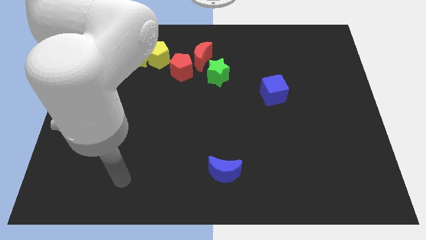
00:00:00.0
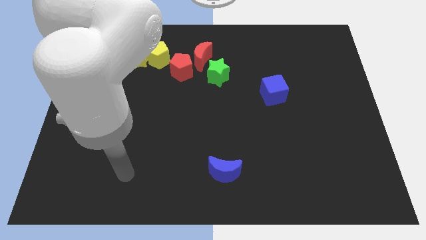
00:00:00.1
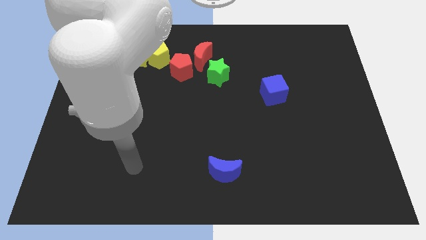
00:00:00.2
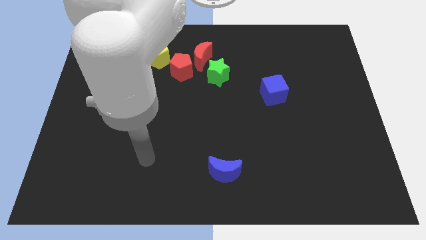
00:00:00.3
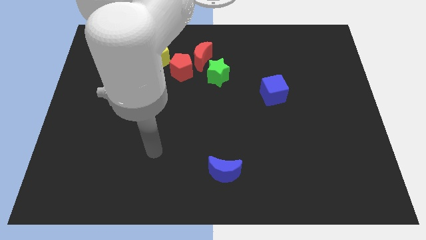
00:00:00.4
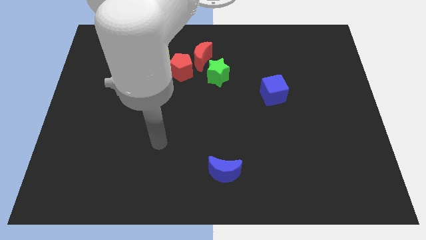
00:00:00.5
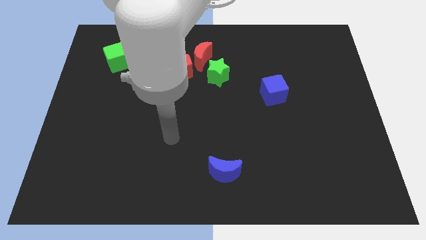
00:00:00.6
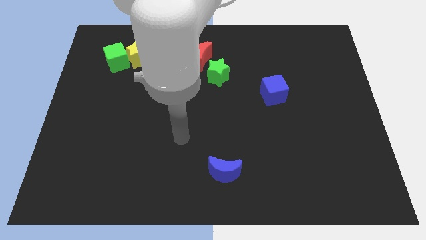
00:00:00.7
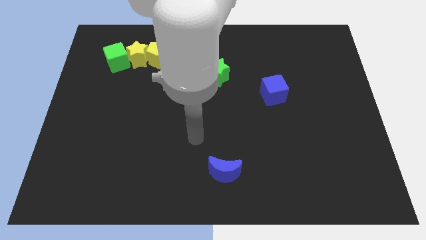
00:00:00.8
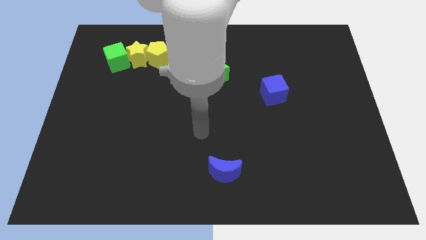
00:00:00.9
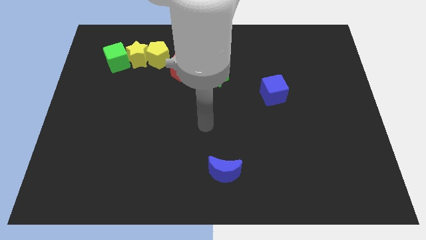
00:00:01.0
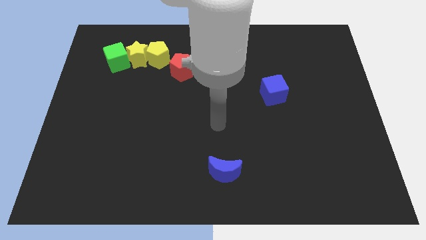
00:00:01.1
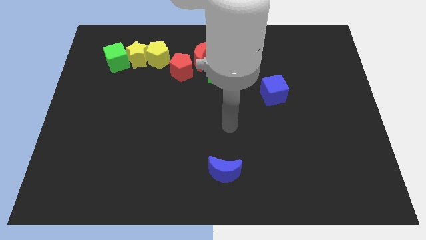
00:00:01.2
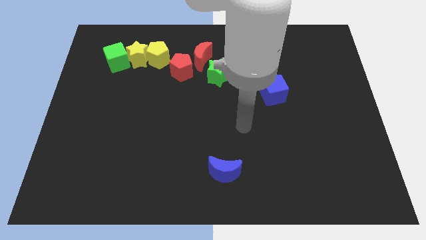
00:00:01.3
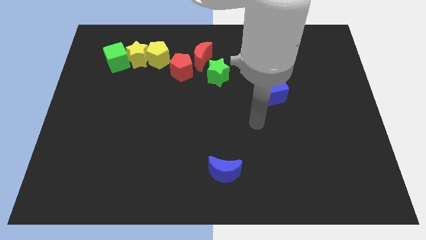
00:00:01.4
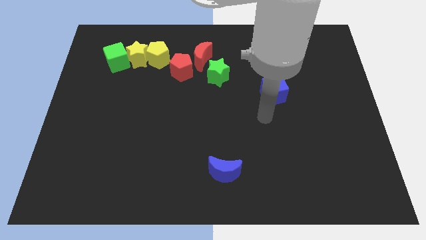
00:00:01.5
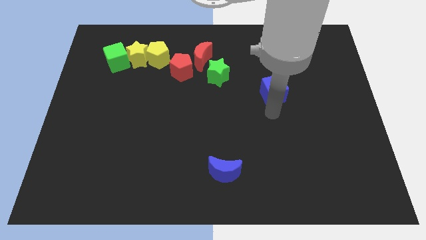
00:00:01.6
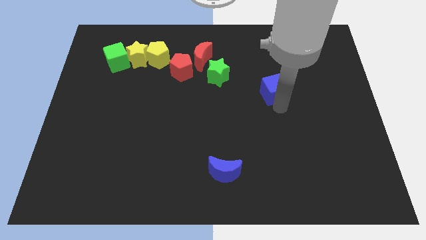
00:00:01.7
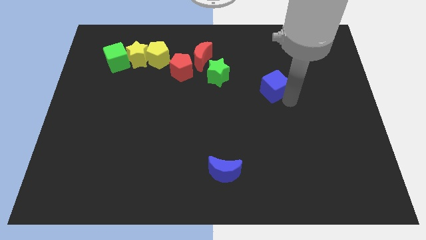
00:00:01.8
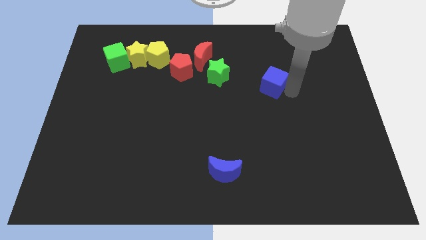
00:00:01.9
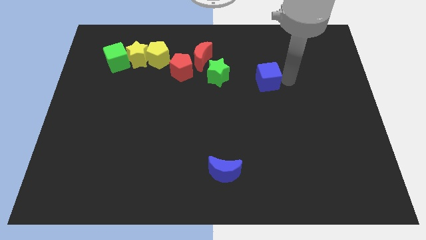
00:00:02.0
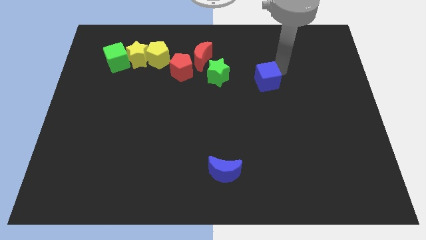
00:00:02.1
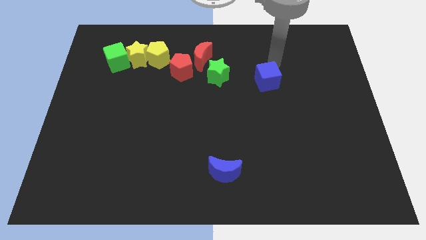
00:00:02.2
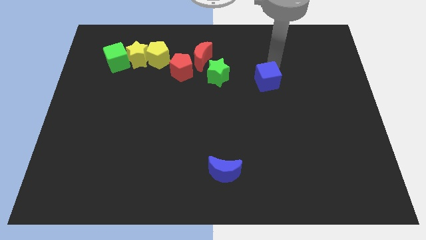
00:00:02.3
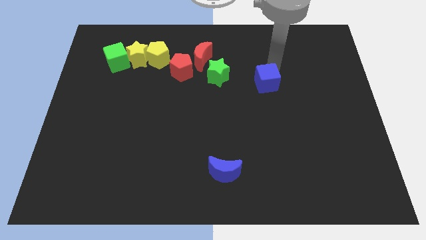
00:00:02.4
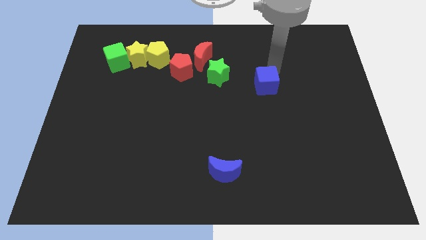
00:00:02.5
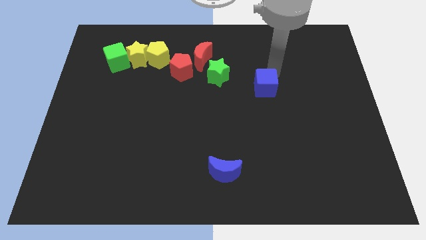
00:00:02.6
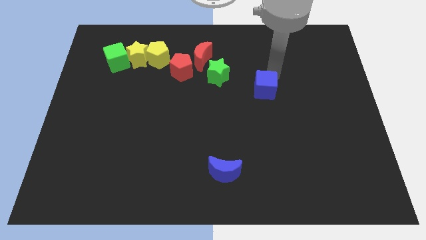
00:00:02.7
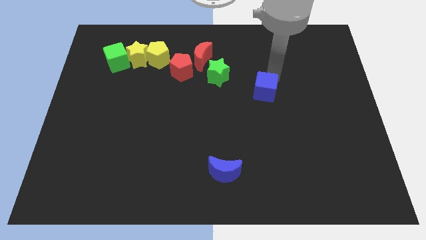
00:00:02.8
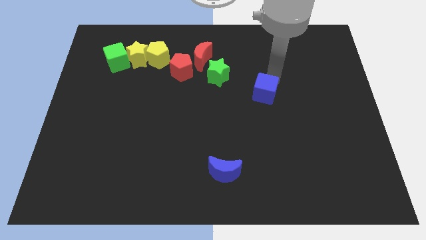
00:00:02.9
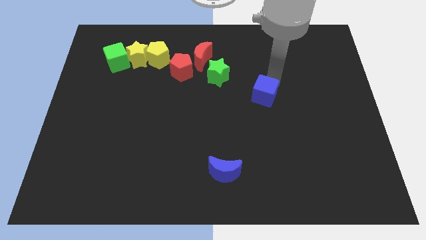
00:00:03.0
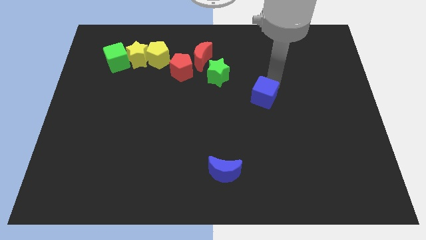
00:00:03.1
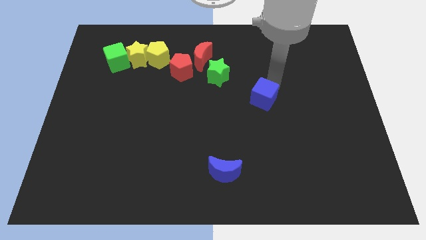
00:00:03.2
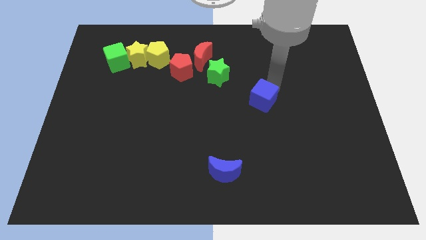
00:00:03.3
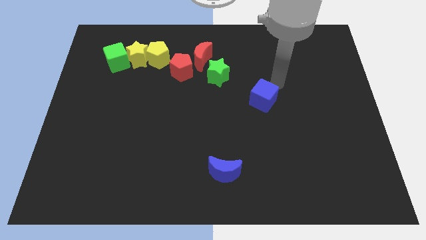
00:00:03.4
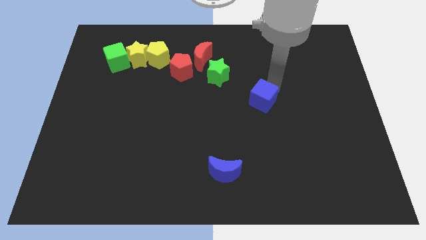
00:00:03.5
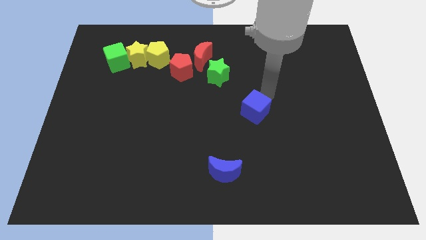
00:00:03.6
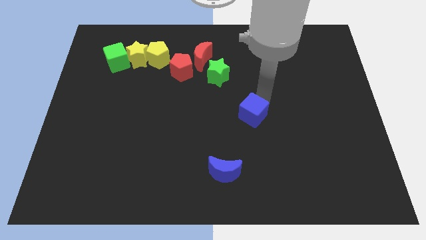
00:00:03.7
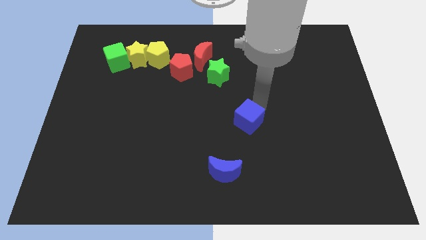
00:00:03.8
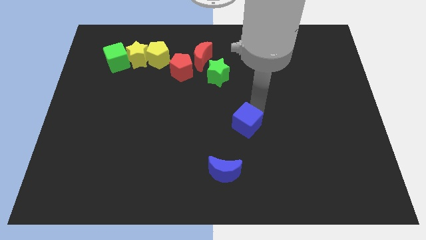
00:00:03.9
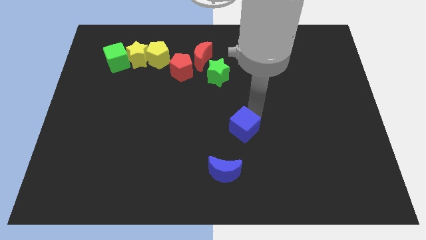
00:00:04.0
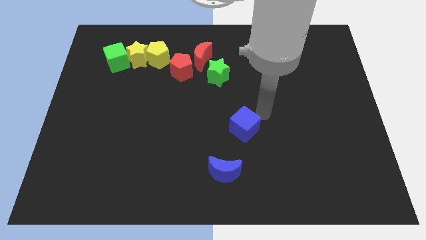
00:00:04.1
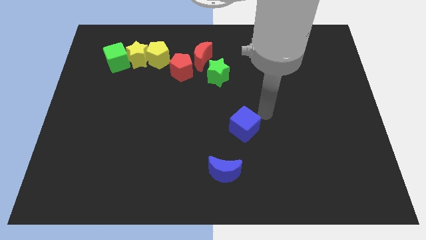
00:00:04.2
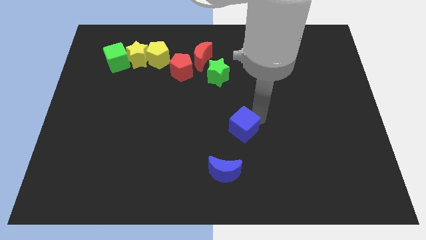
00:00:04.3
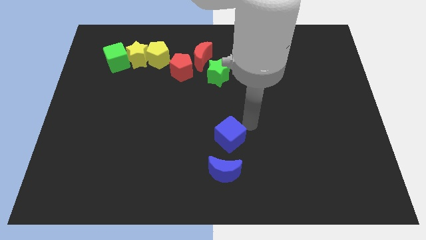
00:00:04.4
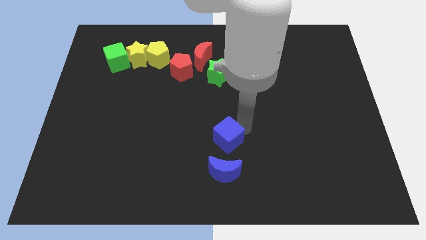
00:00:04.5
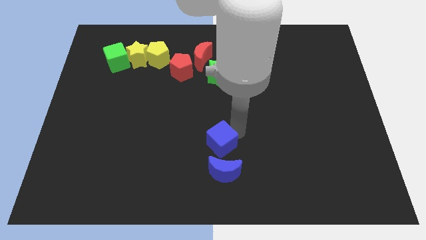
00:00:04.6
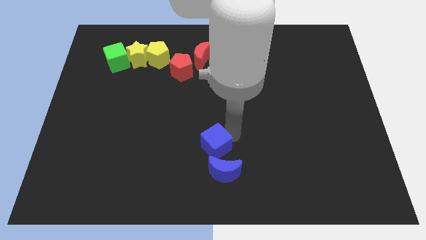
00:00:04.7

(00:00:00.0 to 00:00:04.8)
move the blue cube down and then left

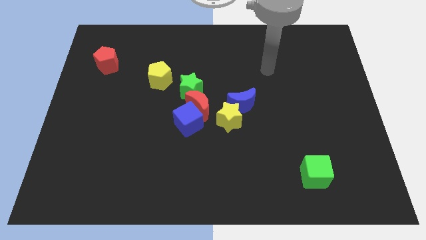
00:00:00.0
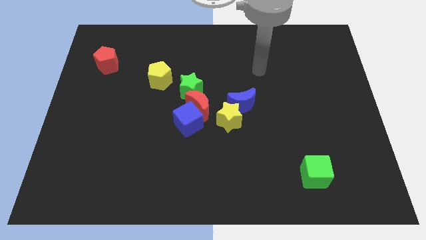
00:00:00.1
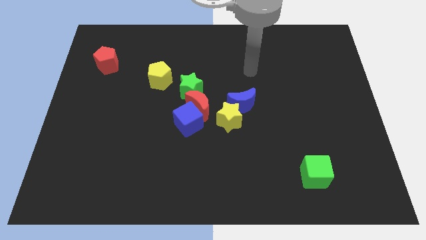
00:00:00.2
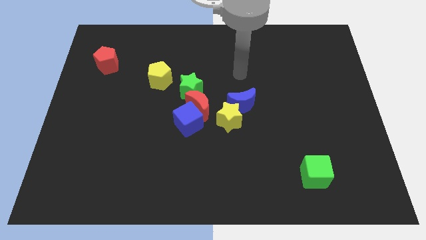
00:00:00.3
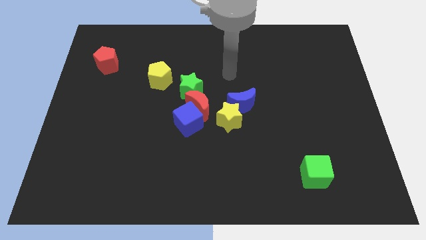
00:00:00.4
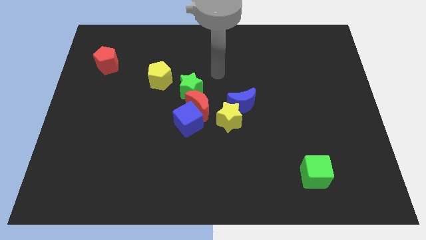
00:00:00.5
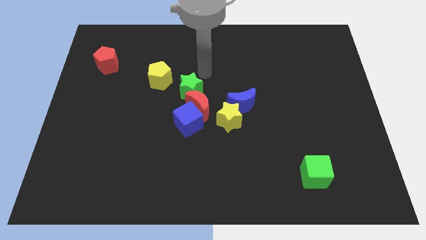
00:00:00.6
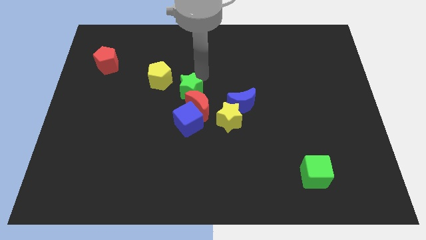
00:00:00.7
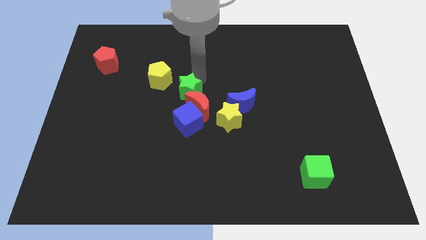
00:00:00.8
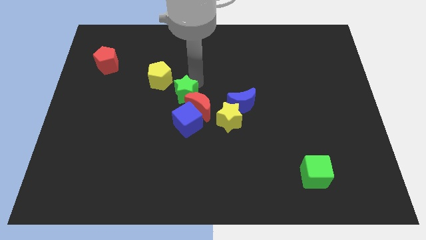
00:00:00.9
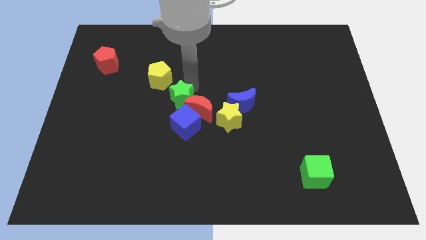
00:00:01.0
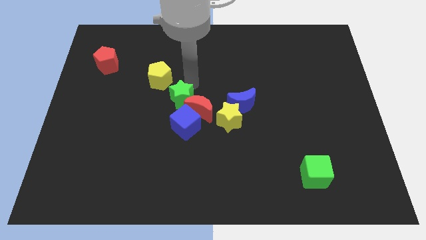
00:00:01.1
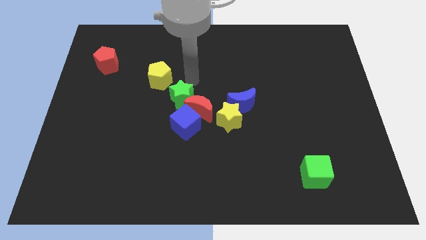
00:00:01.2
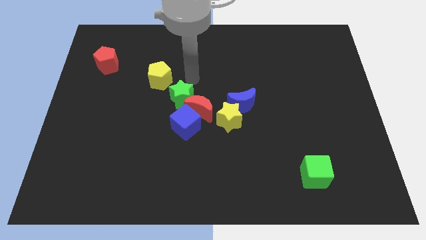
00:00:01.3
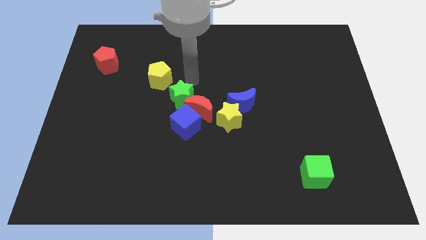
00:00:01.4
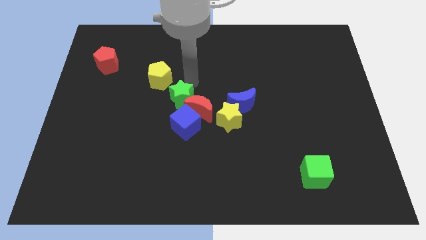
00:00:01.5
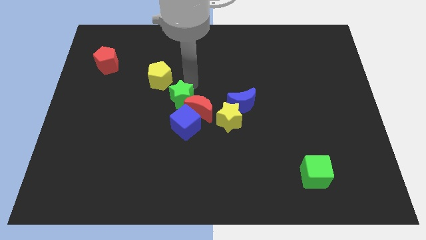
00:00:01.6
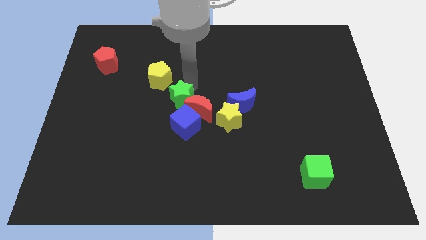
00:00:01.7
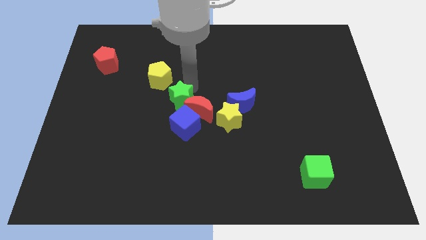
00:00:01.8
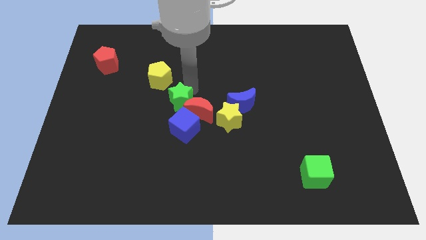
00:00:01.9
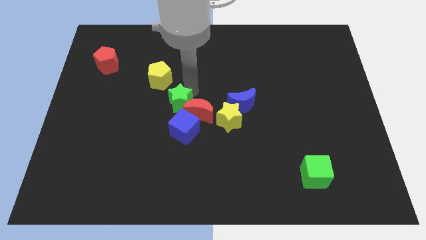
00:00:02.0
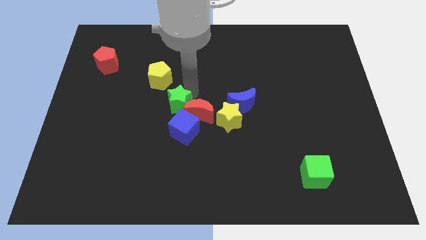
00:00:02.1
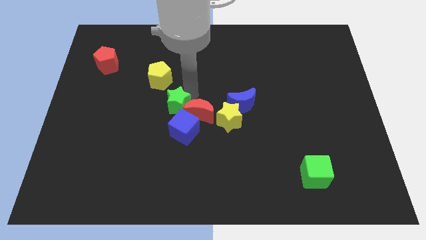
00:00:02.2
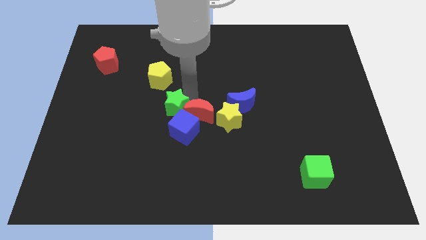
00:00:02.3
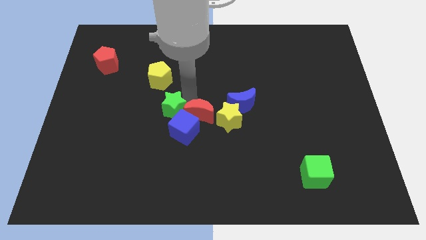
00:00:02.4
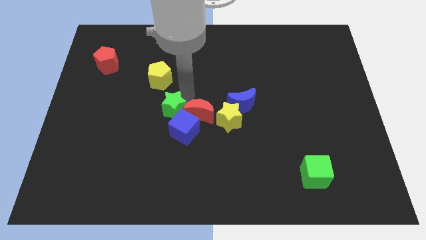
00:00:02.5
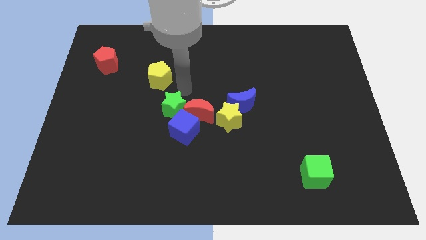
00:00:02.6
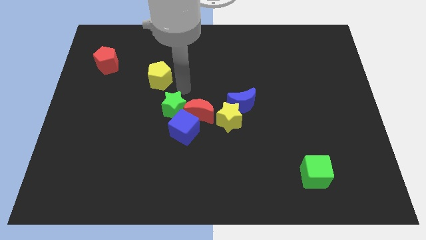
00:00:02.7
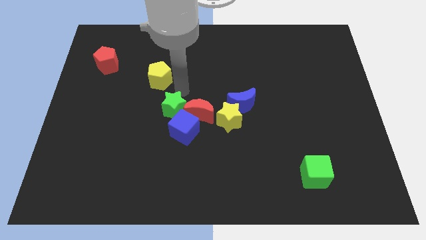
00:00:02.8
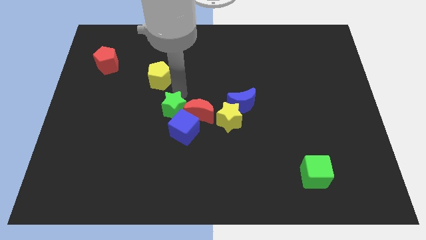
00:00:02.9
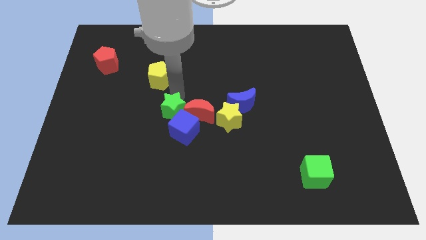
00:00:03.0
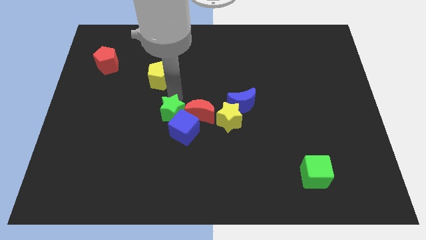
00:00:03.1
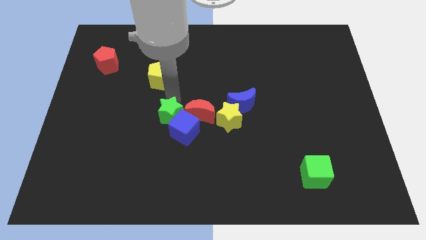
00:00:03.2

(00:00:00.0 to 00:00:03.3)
push the green star downwards a little bit
